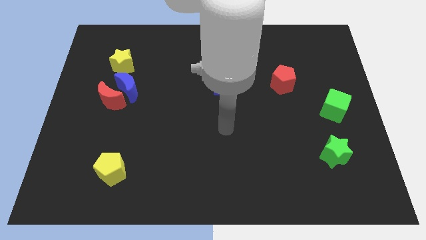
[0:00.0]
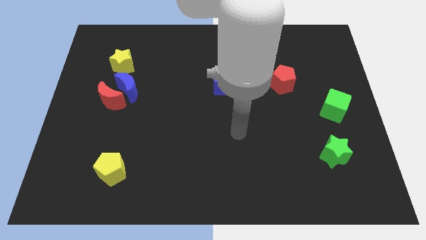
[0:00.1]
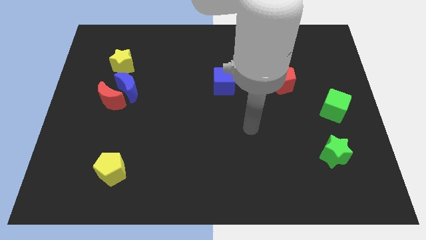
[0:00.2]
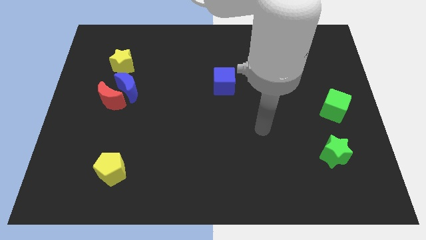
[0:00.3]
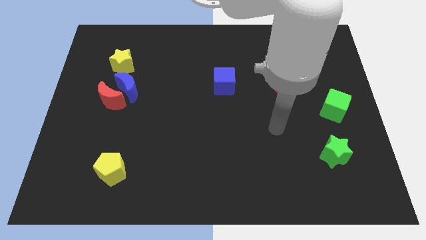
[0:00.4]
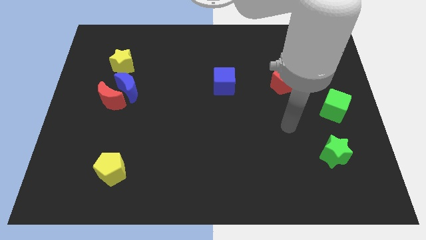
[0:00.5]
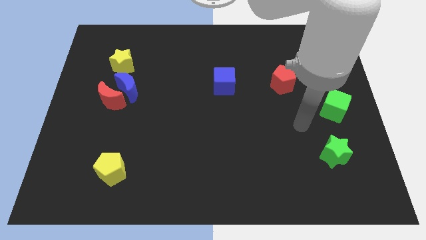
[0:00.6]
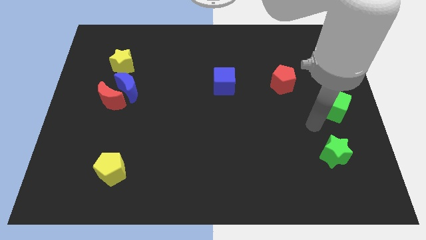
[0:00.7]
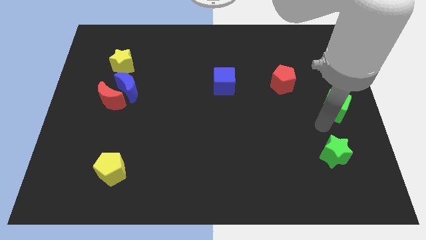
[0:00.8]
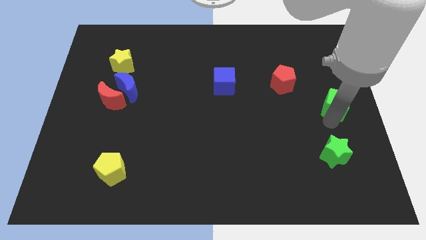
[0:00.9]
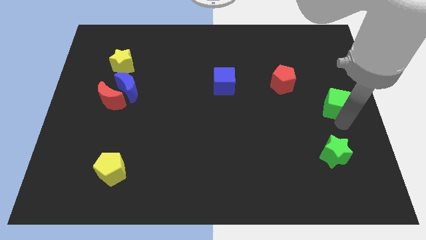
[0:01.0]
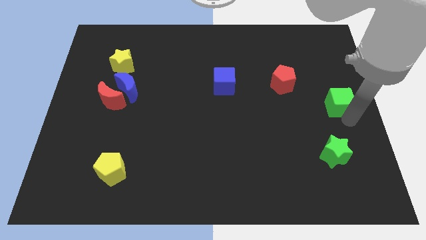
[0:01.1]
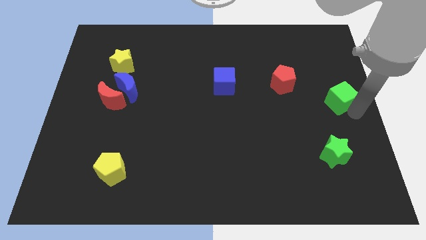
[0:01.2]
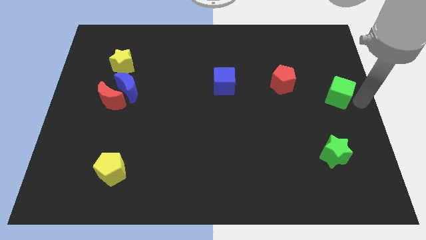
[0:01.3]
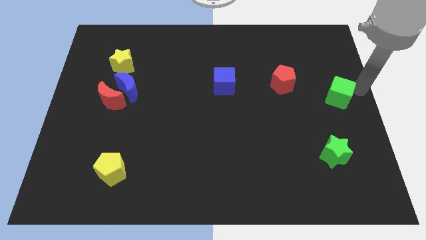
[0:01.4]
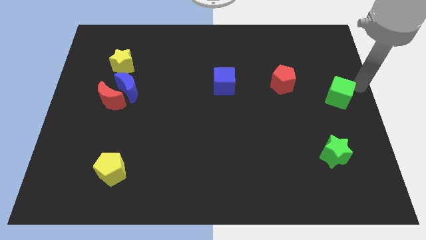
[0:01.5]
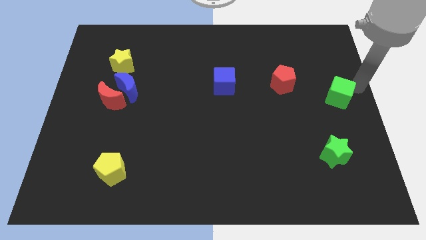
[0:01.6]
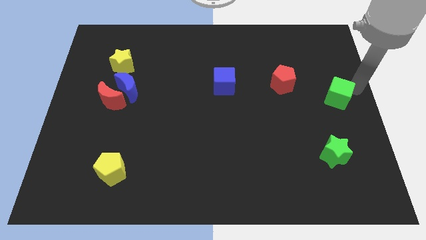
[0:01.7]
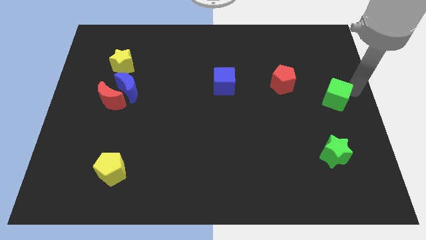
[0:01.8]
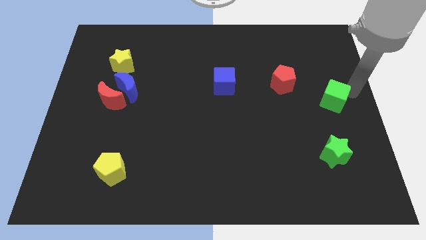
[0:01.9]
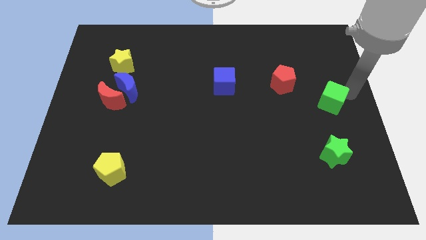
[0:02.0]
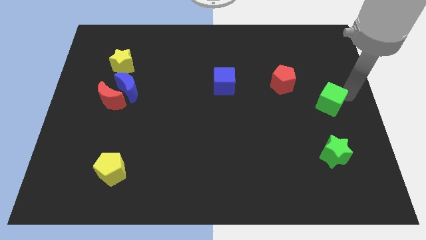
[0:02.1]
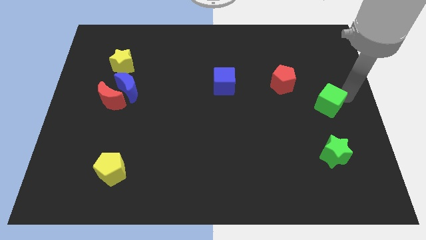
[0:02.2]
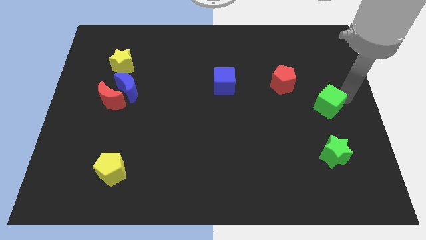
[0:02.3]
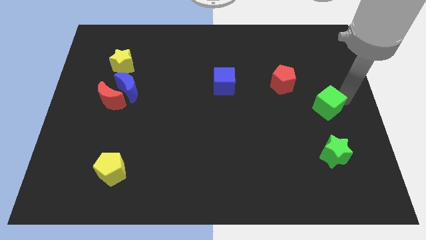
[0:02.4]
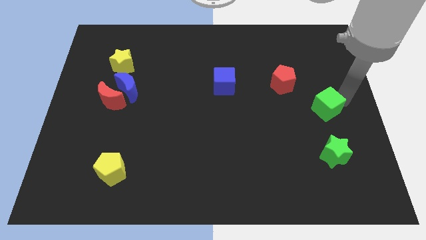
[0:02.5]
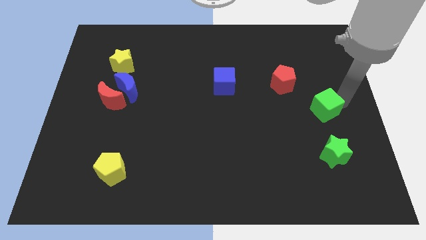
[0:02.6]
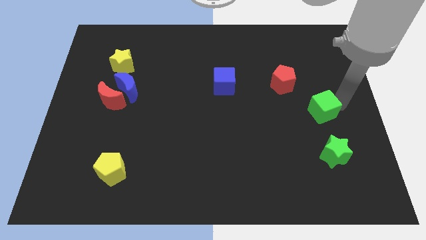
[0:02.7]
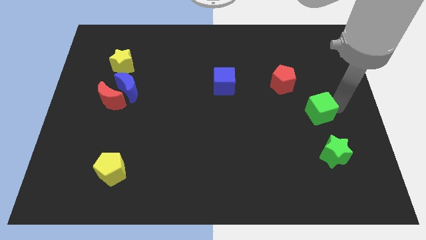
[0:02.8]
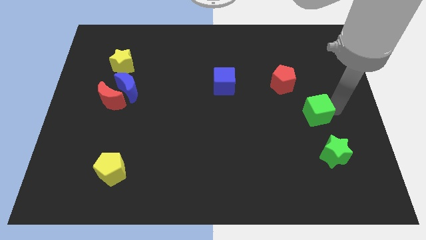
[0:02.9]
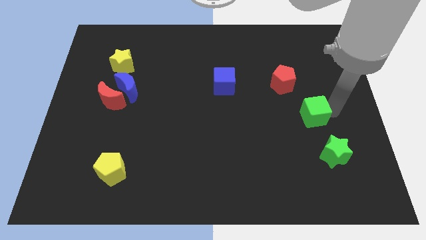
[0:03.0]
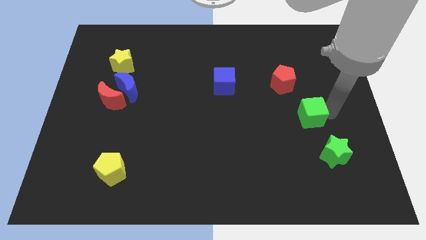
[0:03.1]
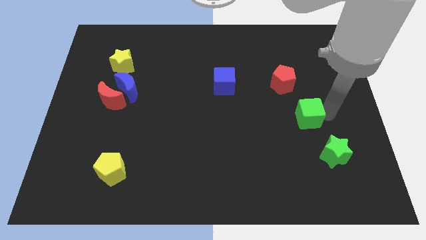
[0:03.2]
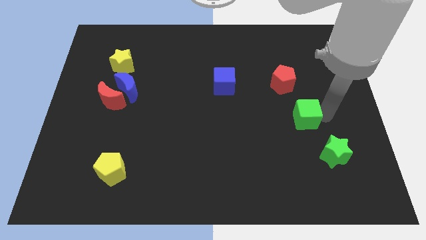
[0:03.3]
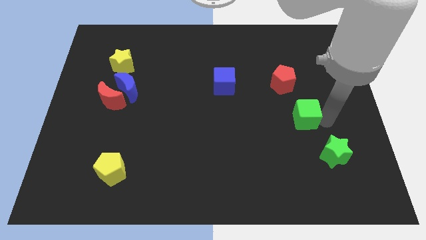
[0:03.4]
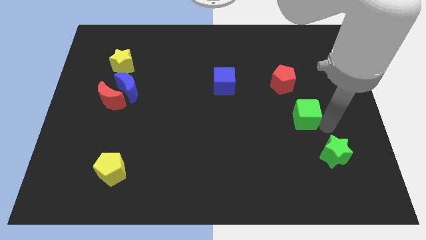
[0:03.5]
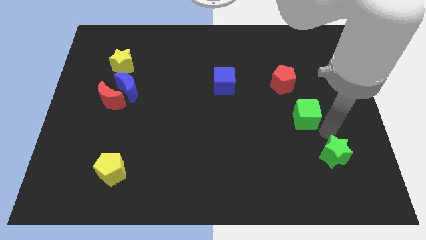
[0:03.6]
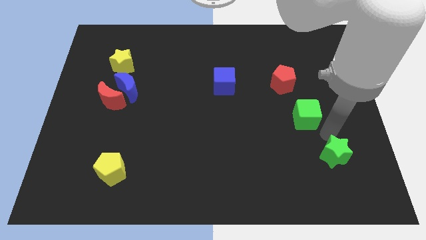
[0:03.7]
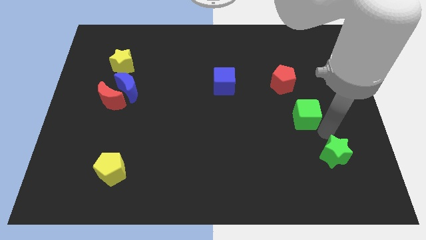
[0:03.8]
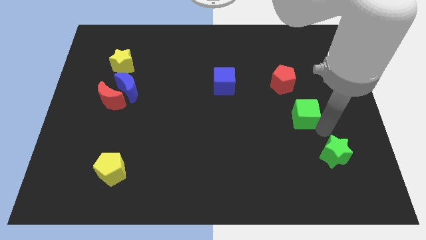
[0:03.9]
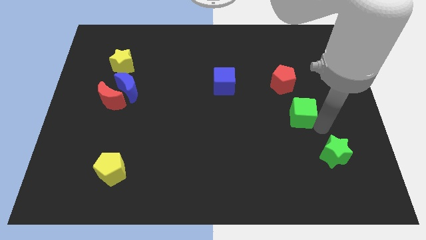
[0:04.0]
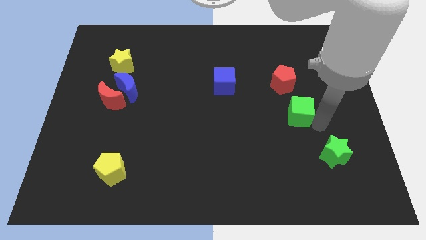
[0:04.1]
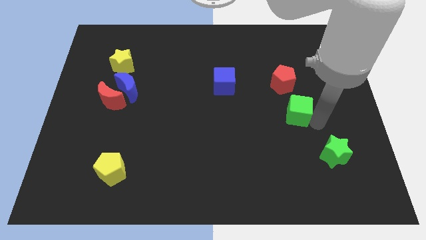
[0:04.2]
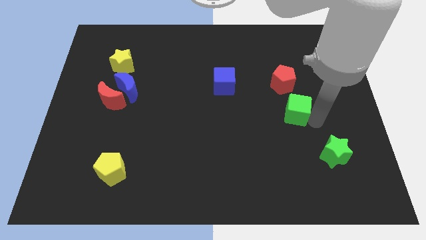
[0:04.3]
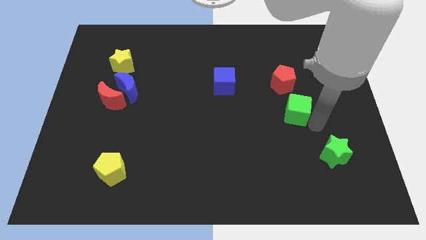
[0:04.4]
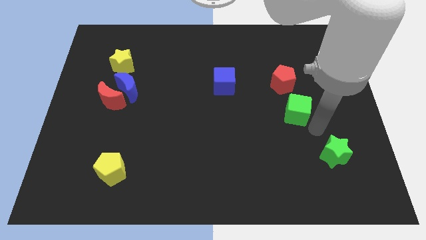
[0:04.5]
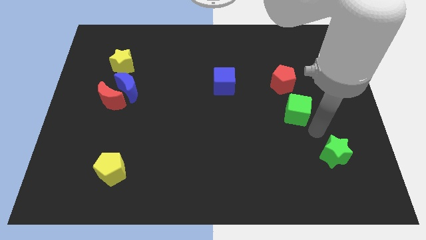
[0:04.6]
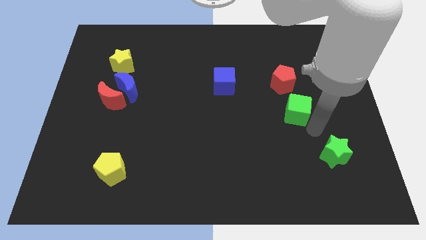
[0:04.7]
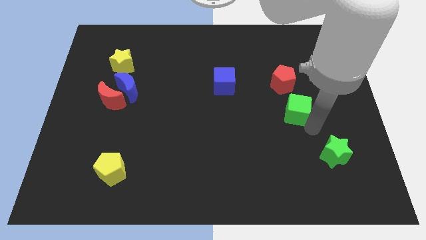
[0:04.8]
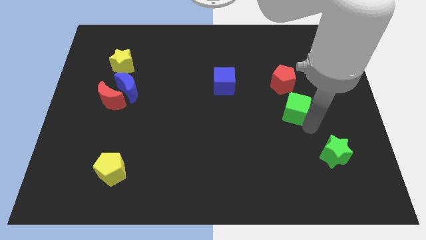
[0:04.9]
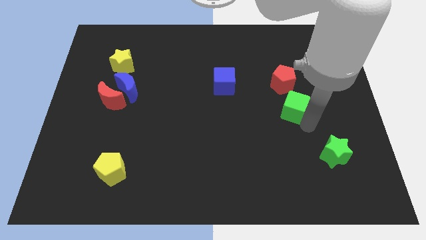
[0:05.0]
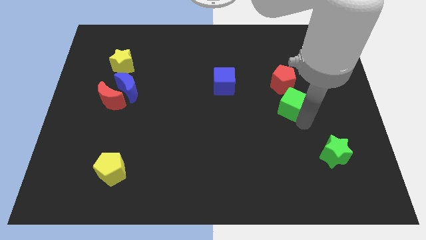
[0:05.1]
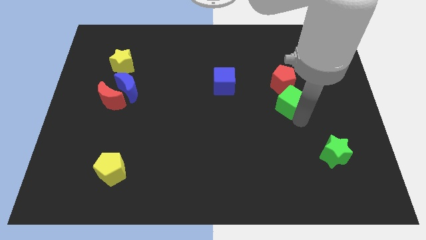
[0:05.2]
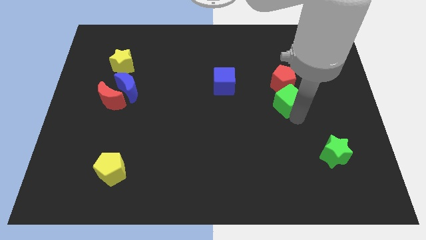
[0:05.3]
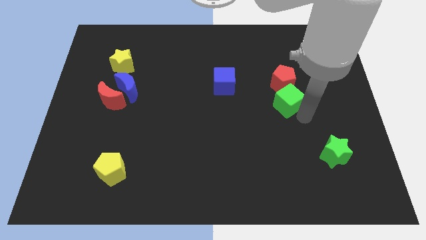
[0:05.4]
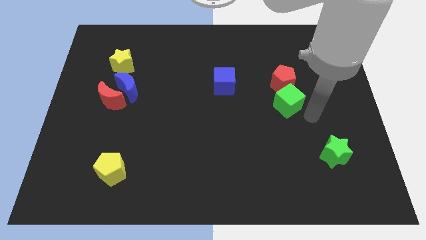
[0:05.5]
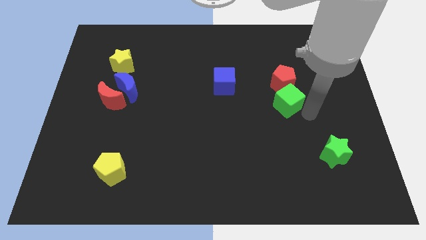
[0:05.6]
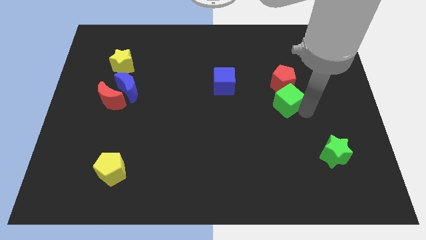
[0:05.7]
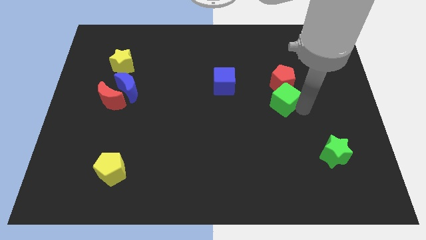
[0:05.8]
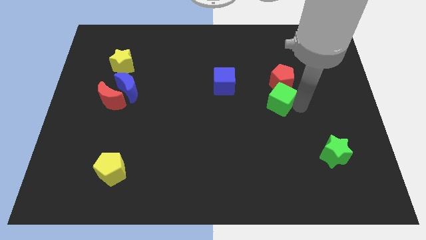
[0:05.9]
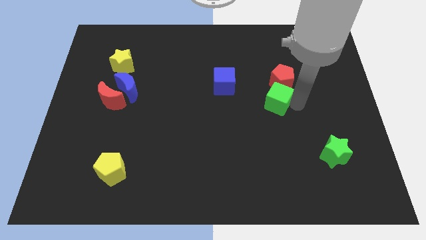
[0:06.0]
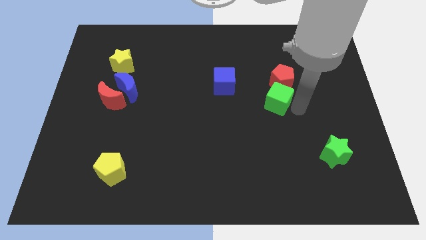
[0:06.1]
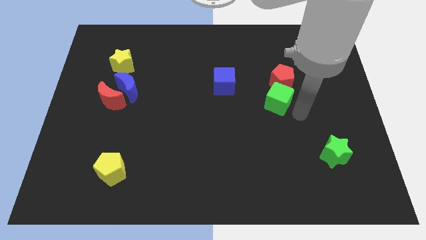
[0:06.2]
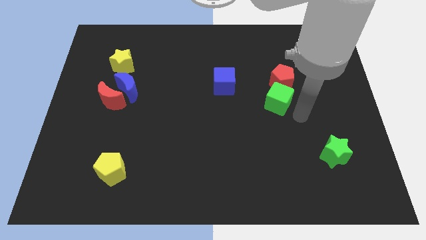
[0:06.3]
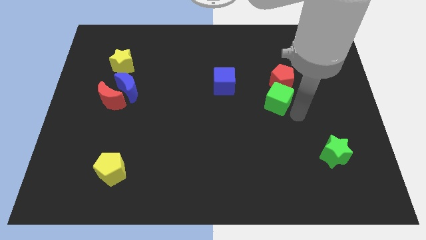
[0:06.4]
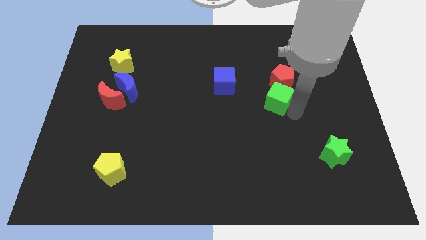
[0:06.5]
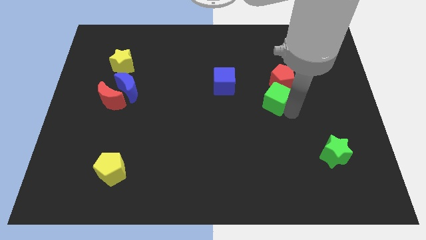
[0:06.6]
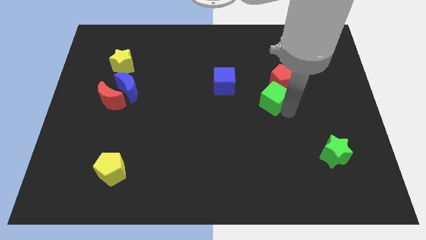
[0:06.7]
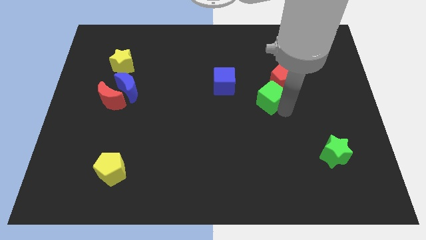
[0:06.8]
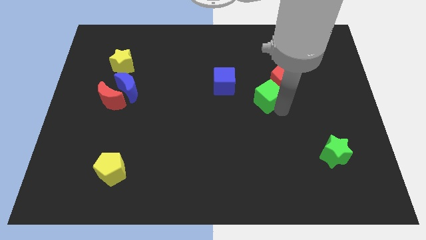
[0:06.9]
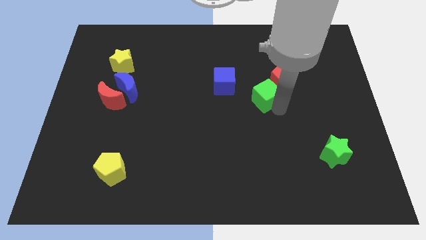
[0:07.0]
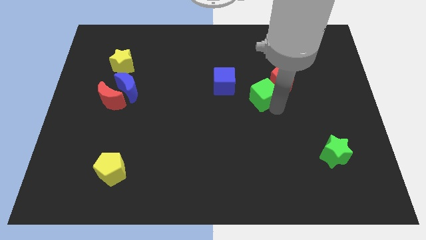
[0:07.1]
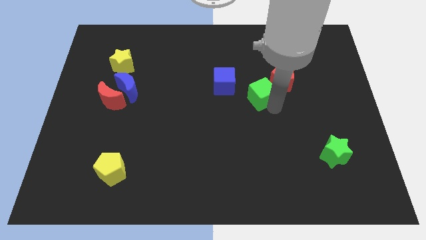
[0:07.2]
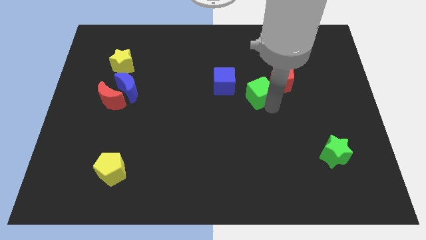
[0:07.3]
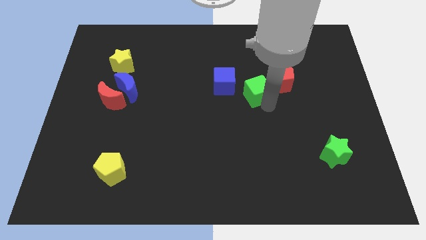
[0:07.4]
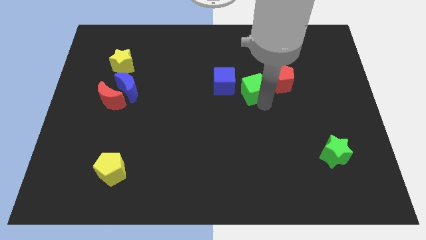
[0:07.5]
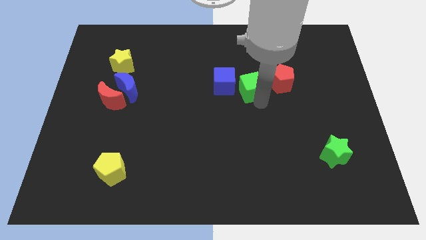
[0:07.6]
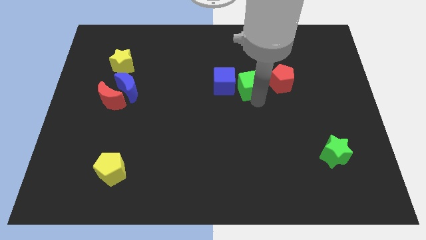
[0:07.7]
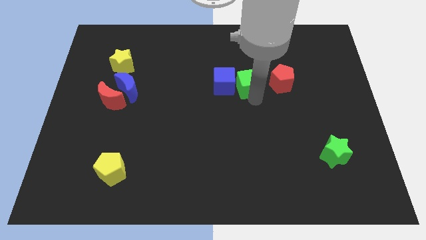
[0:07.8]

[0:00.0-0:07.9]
push the green cube diagonally up and to the right of the blue cube
